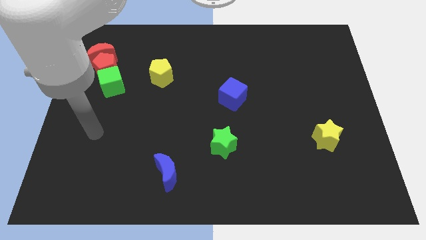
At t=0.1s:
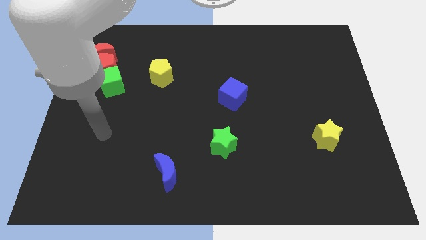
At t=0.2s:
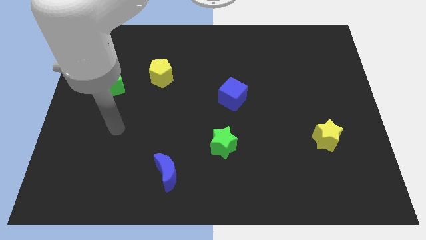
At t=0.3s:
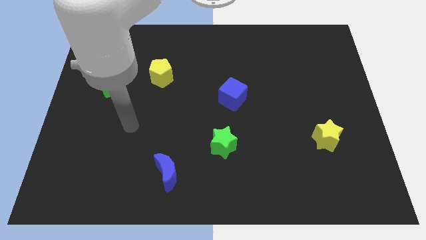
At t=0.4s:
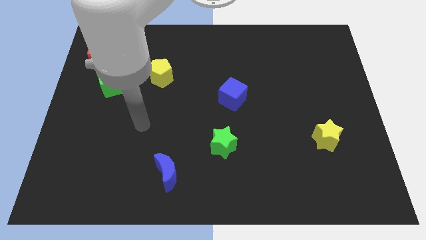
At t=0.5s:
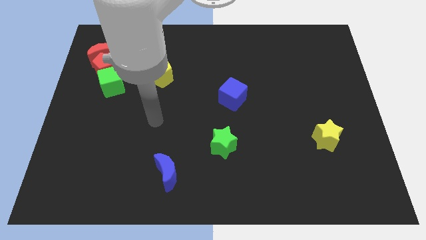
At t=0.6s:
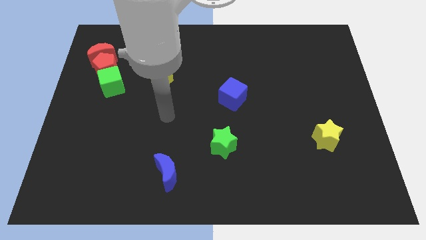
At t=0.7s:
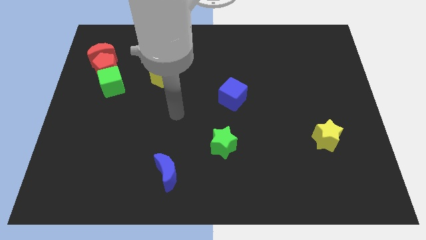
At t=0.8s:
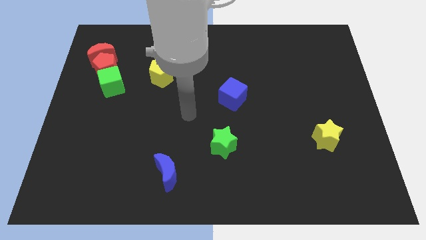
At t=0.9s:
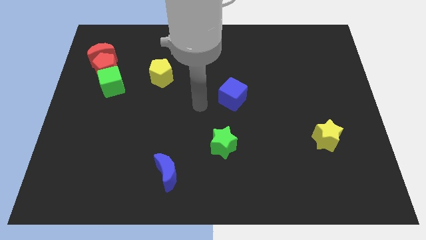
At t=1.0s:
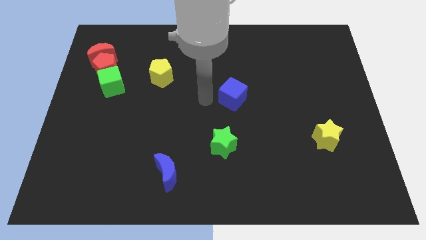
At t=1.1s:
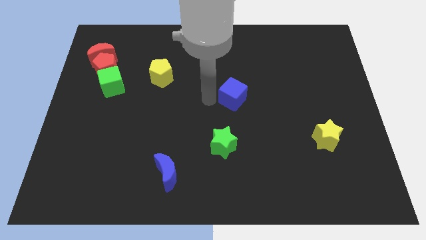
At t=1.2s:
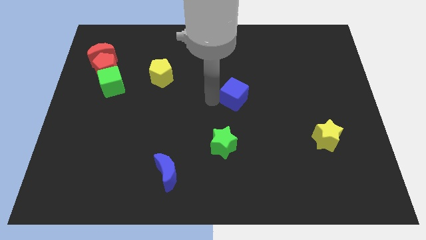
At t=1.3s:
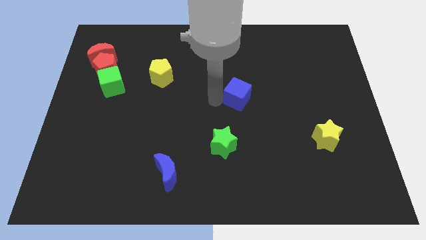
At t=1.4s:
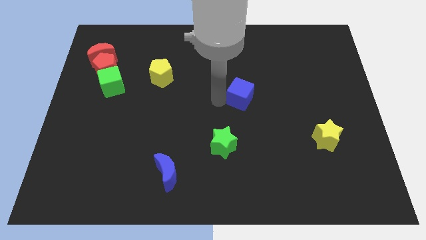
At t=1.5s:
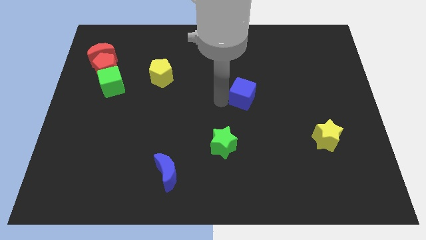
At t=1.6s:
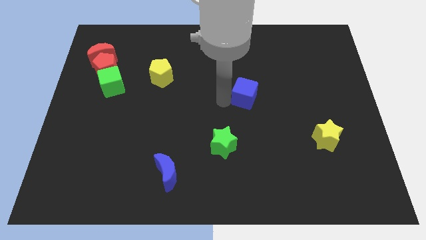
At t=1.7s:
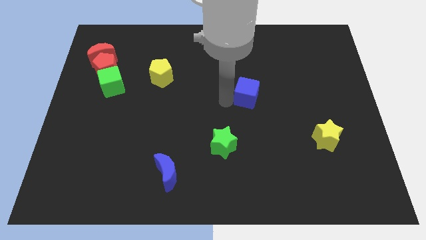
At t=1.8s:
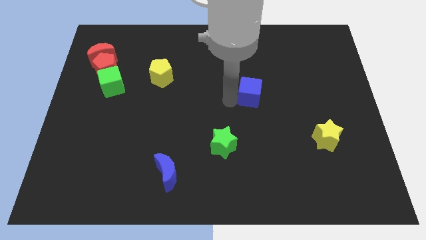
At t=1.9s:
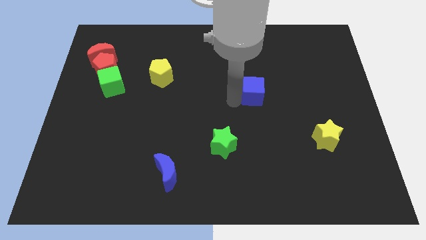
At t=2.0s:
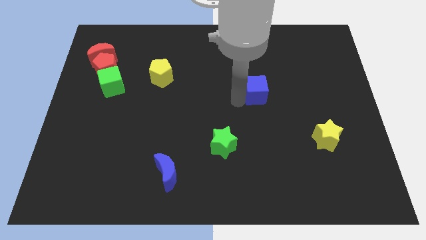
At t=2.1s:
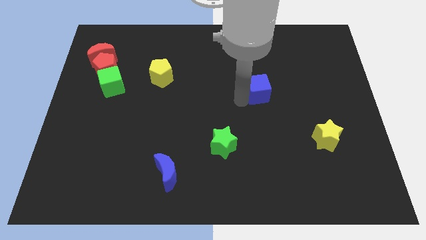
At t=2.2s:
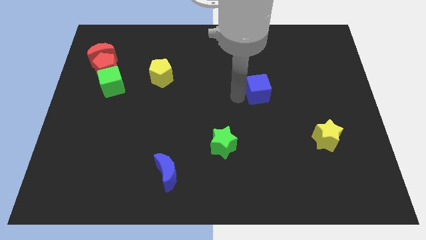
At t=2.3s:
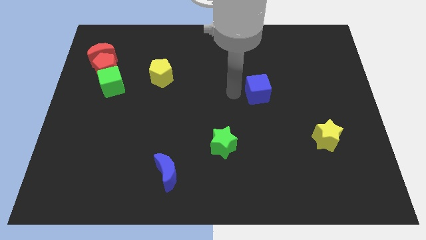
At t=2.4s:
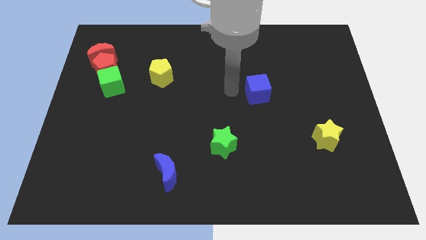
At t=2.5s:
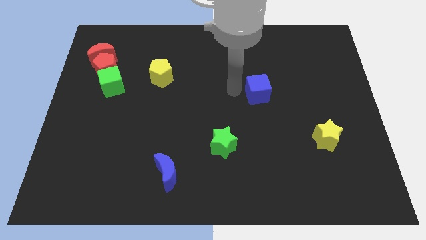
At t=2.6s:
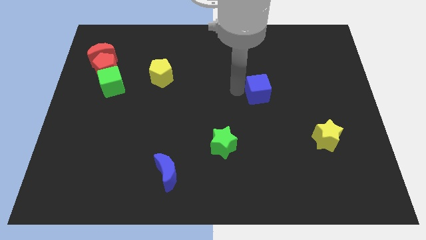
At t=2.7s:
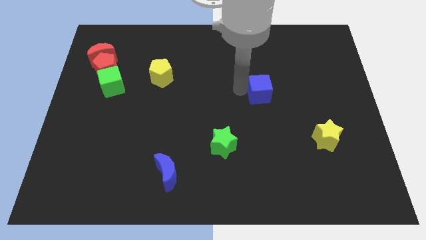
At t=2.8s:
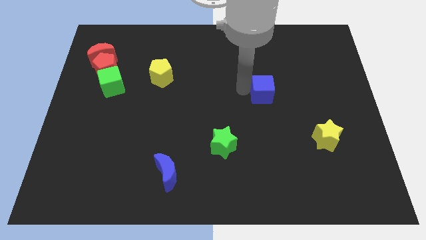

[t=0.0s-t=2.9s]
move the blue cube a bit right

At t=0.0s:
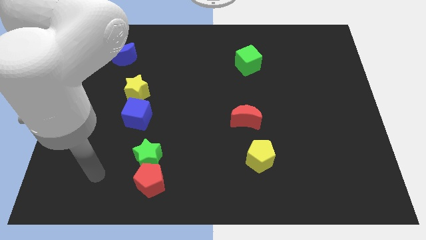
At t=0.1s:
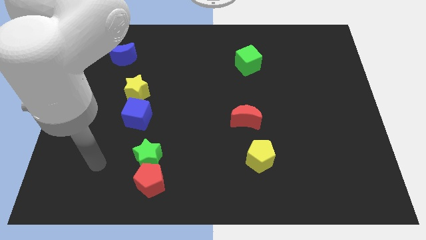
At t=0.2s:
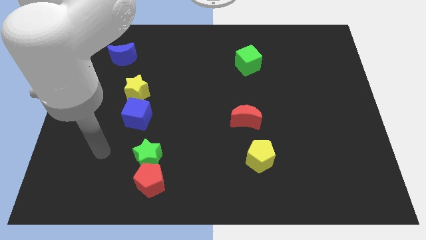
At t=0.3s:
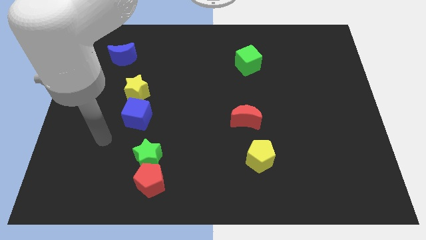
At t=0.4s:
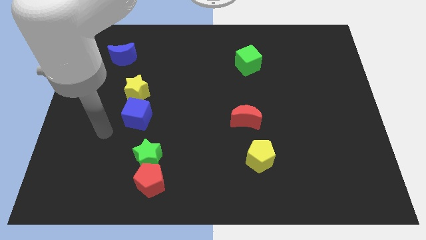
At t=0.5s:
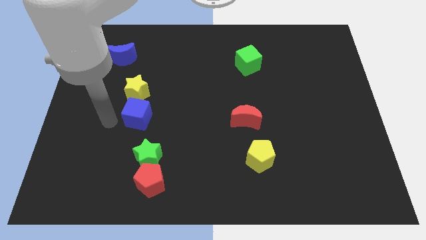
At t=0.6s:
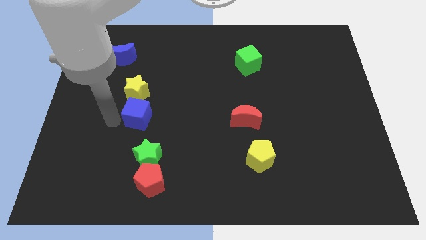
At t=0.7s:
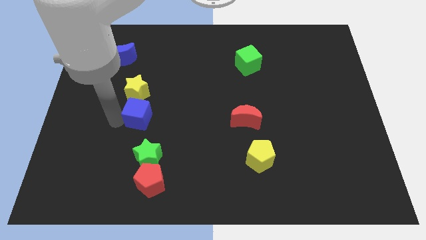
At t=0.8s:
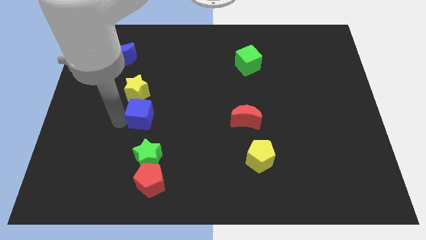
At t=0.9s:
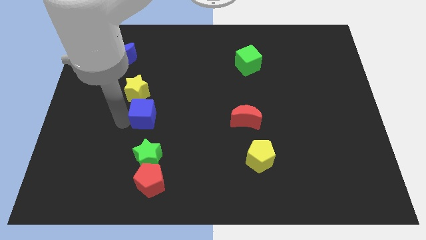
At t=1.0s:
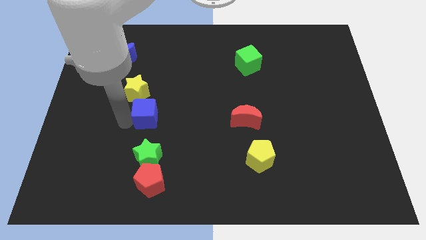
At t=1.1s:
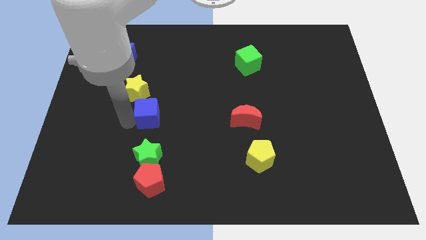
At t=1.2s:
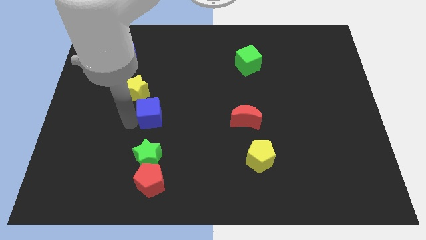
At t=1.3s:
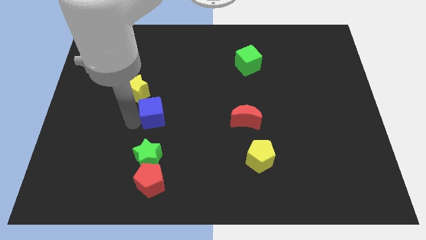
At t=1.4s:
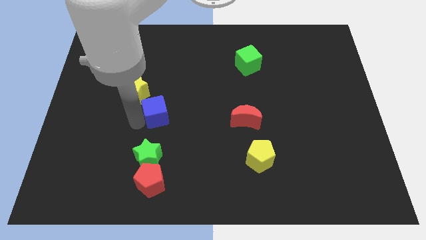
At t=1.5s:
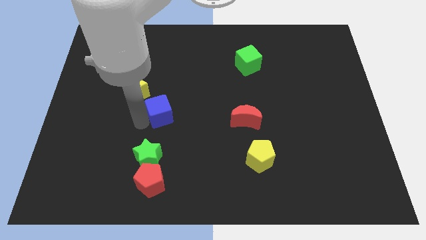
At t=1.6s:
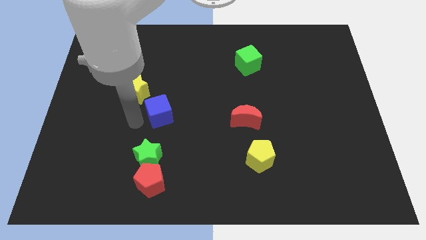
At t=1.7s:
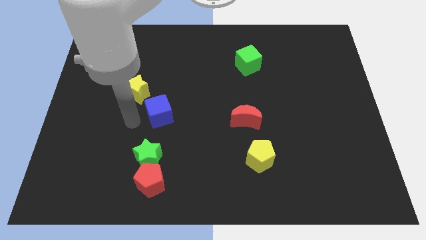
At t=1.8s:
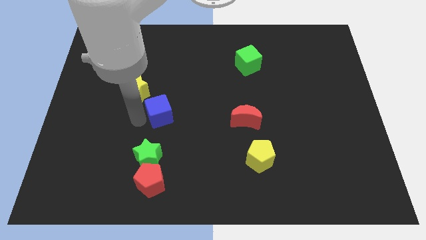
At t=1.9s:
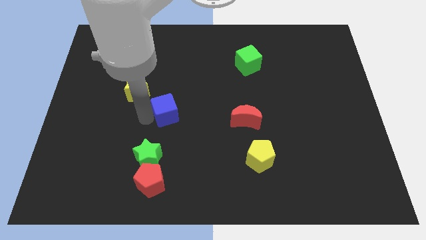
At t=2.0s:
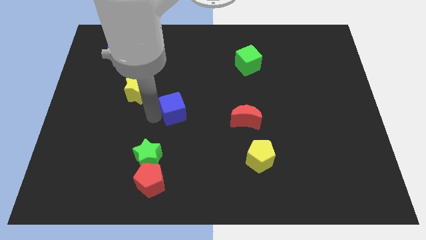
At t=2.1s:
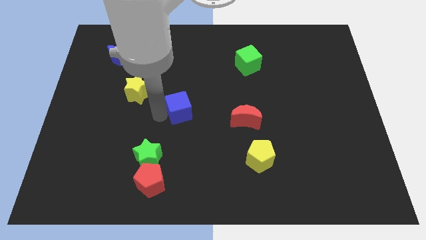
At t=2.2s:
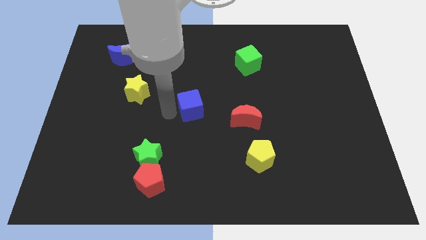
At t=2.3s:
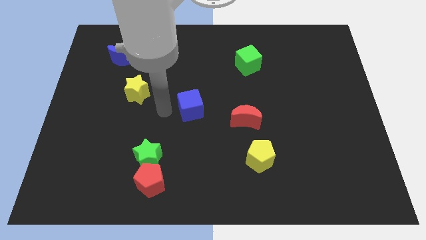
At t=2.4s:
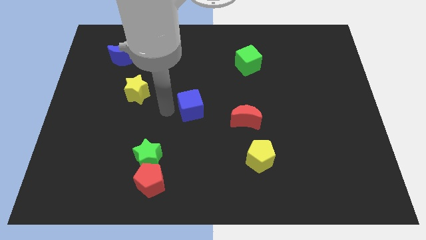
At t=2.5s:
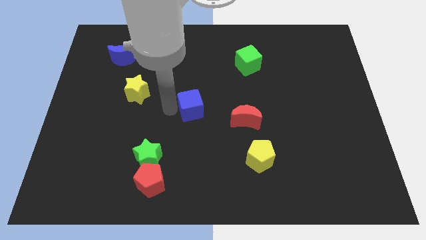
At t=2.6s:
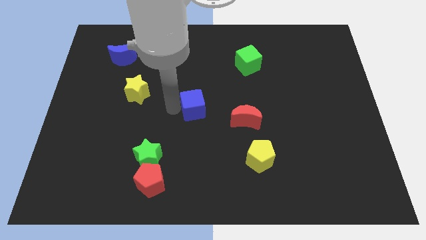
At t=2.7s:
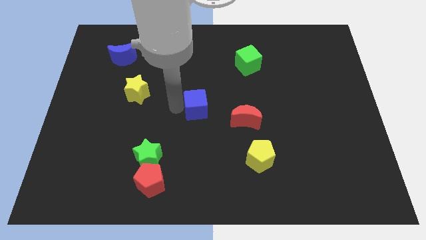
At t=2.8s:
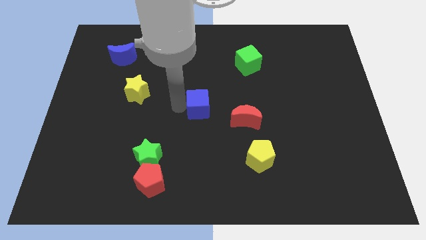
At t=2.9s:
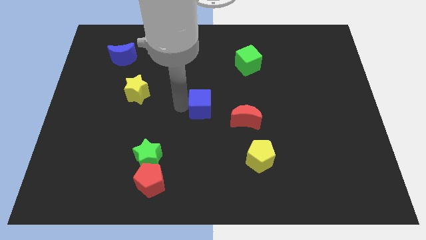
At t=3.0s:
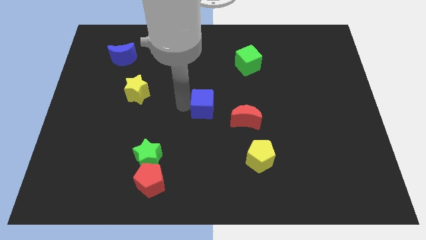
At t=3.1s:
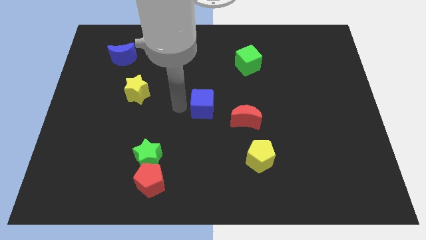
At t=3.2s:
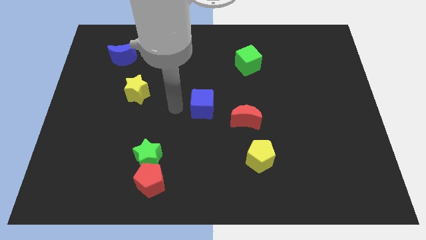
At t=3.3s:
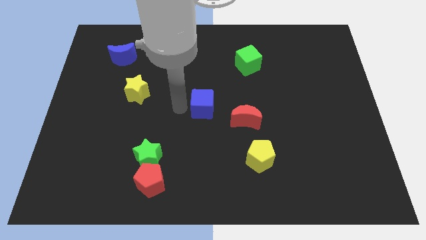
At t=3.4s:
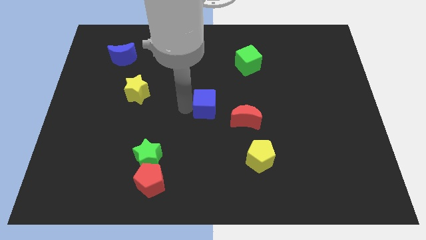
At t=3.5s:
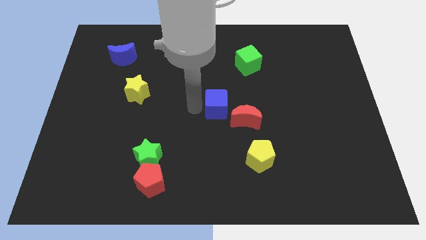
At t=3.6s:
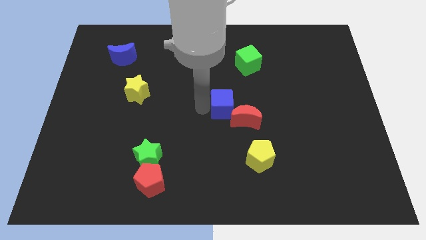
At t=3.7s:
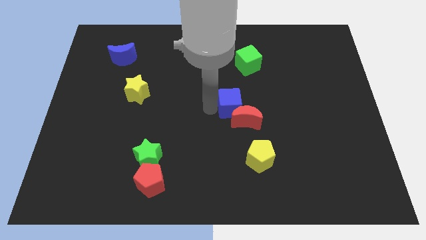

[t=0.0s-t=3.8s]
push the blue cube right

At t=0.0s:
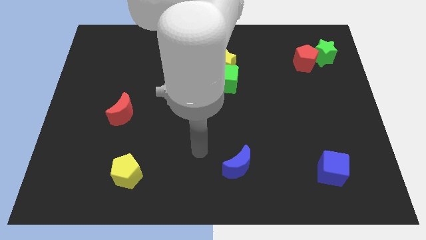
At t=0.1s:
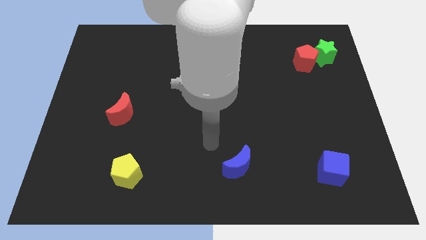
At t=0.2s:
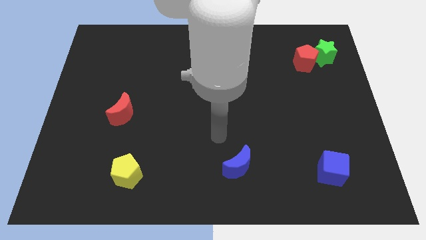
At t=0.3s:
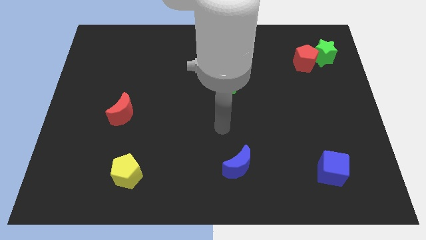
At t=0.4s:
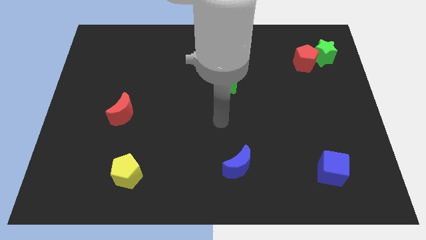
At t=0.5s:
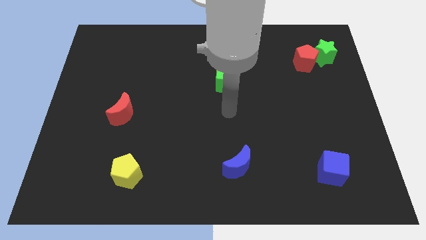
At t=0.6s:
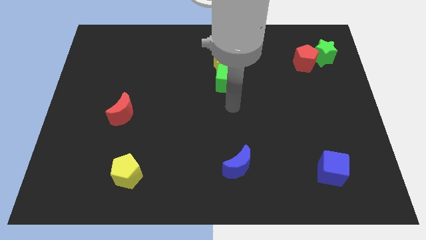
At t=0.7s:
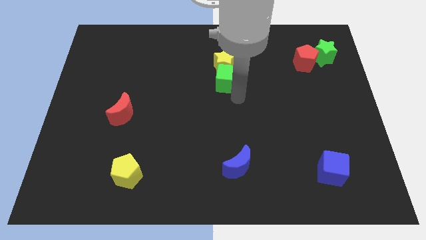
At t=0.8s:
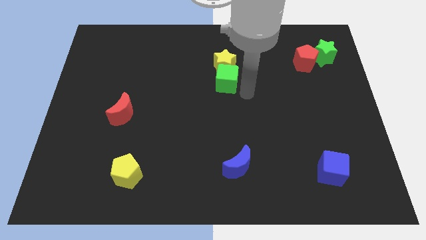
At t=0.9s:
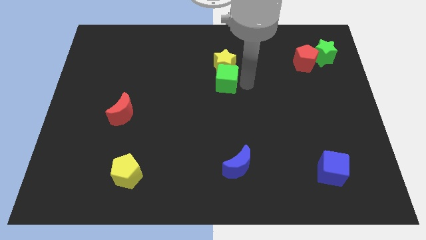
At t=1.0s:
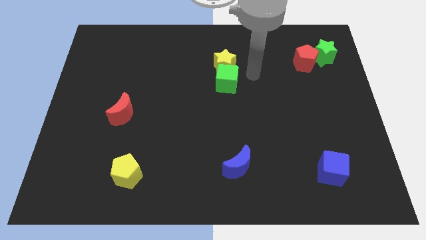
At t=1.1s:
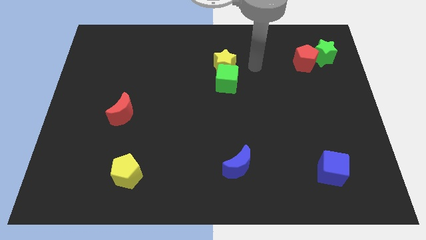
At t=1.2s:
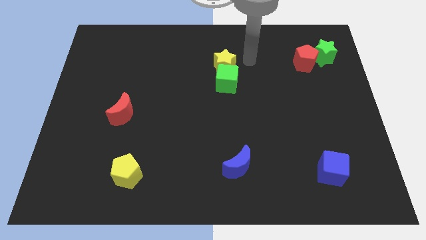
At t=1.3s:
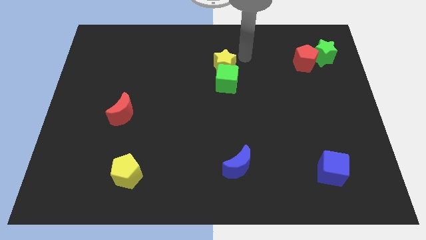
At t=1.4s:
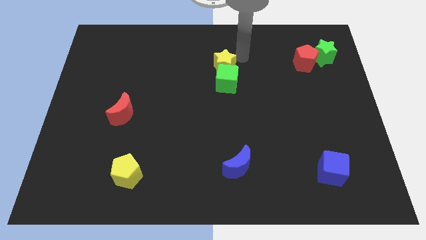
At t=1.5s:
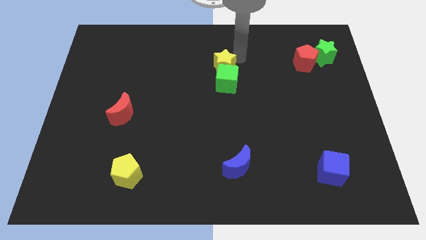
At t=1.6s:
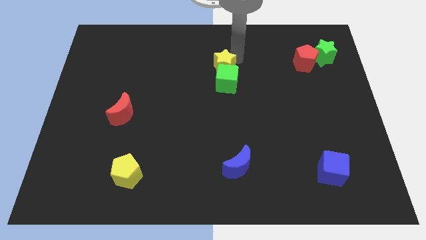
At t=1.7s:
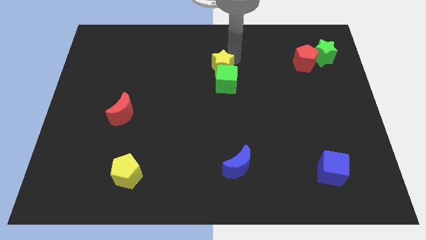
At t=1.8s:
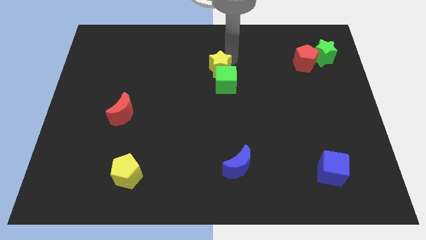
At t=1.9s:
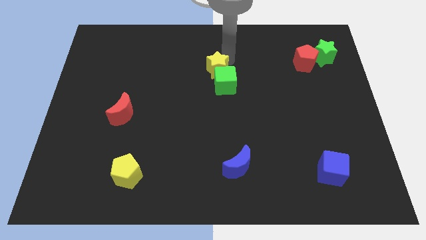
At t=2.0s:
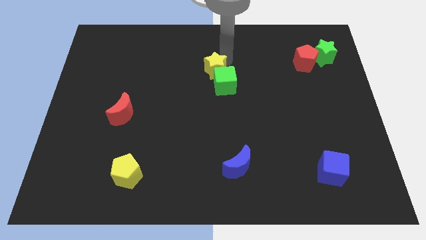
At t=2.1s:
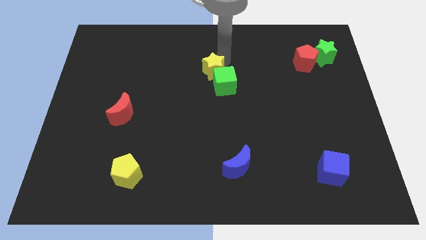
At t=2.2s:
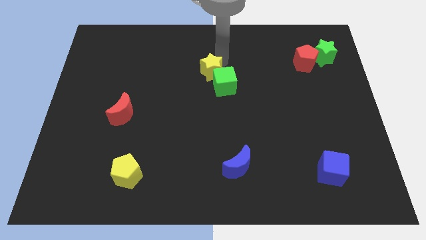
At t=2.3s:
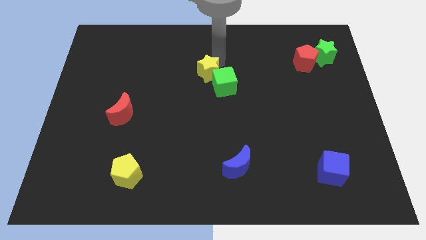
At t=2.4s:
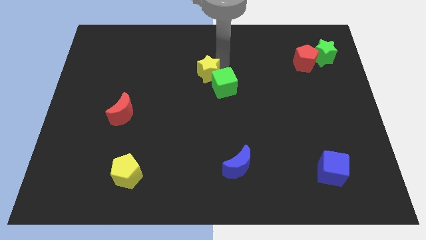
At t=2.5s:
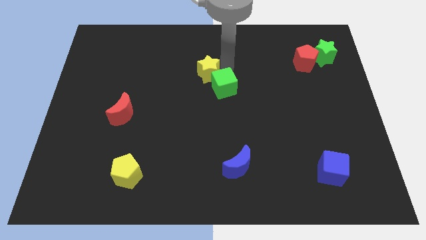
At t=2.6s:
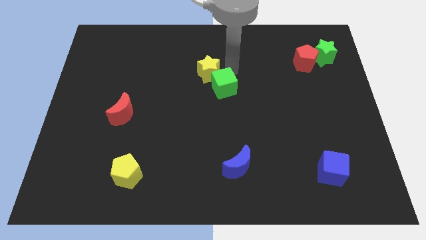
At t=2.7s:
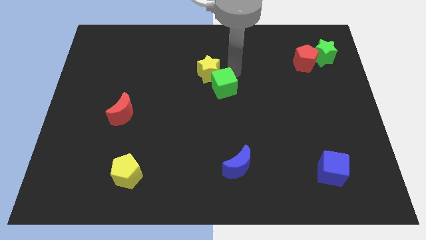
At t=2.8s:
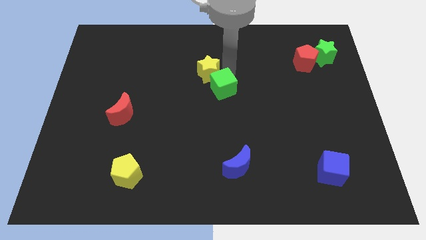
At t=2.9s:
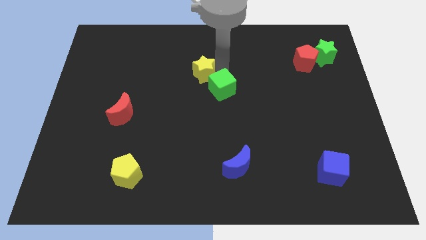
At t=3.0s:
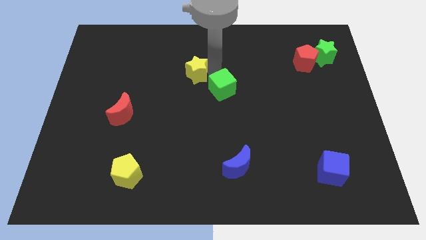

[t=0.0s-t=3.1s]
slightly push the yellow star left
